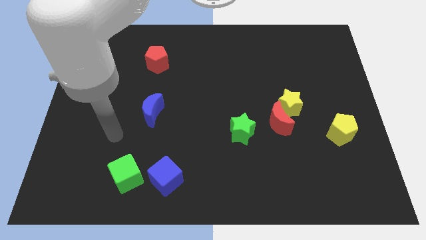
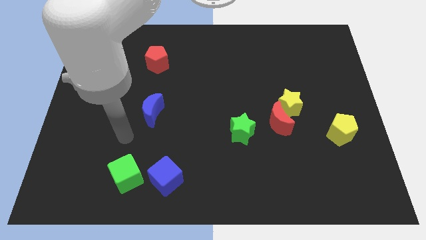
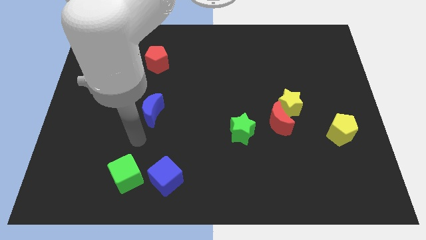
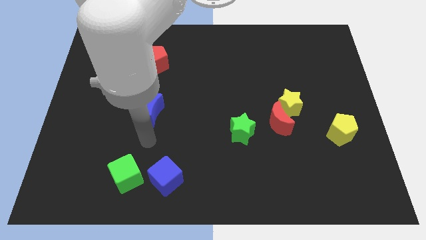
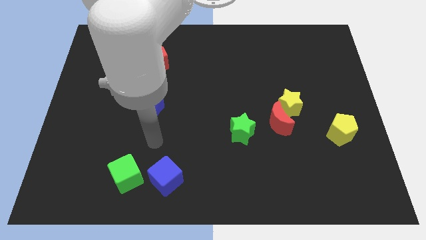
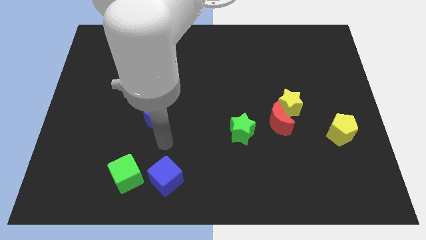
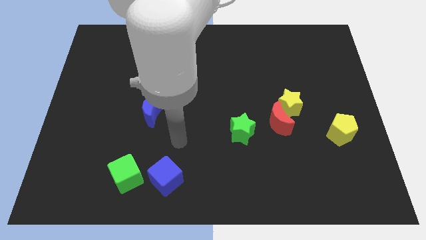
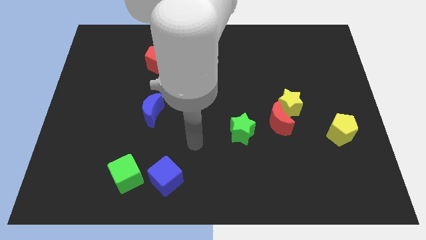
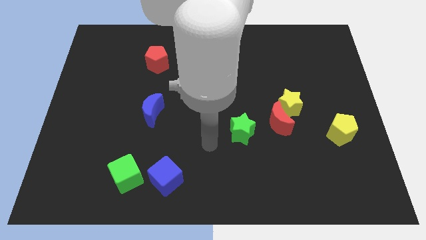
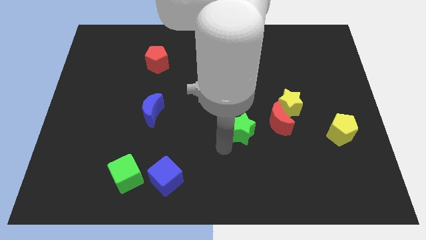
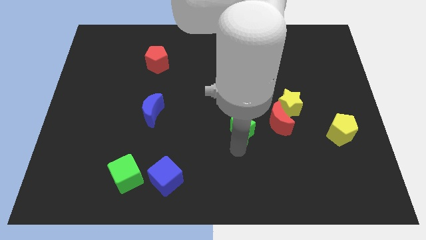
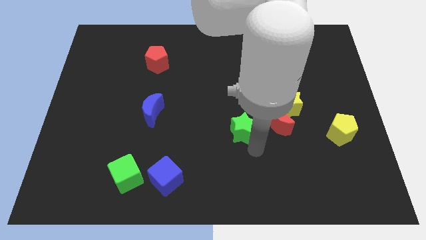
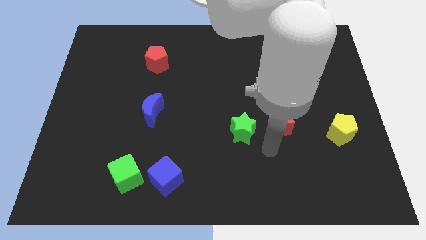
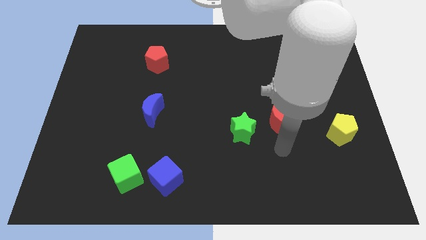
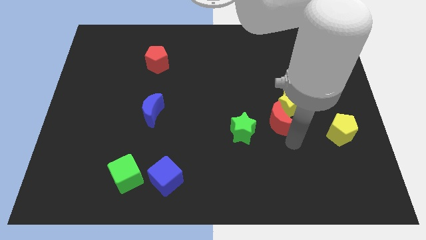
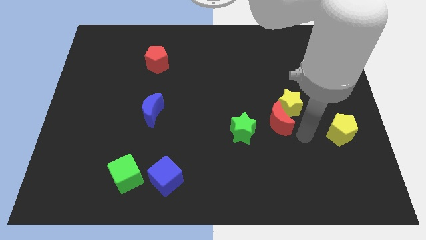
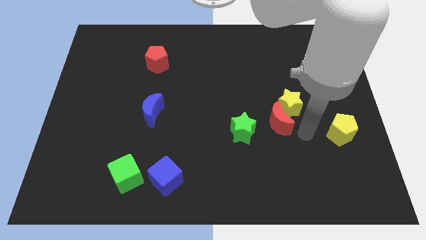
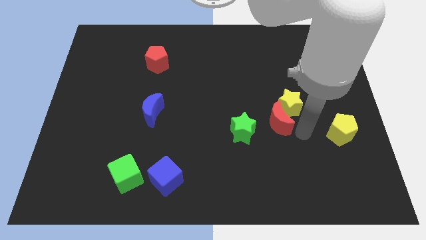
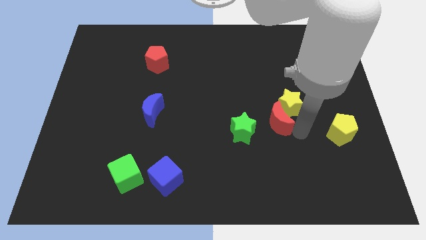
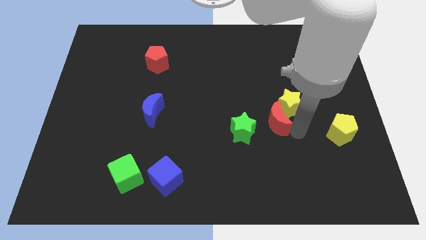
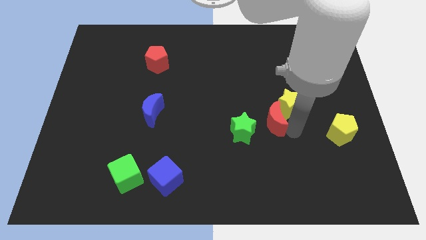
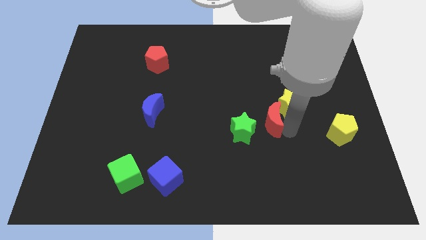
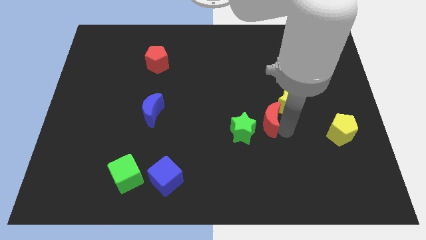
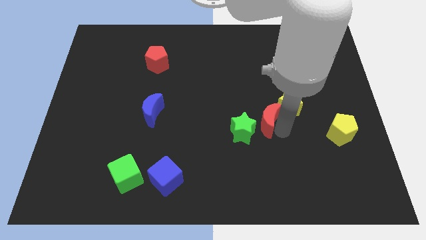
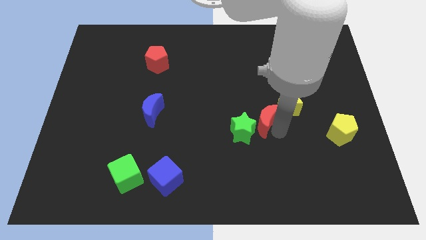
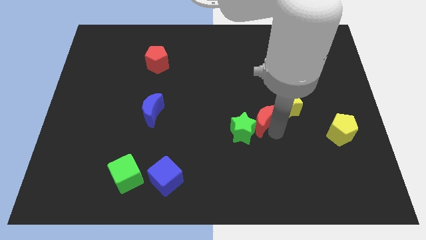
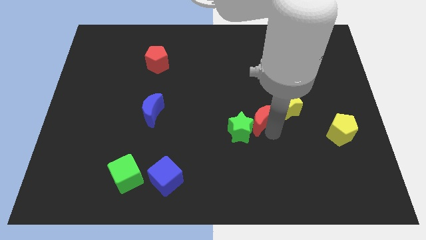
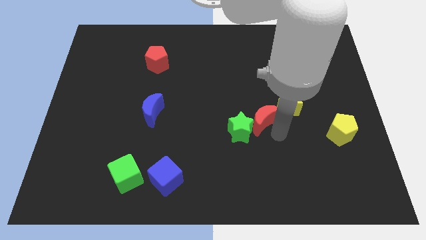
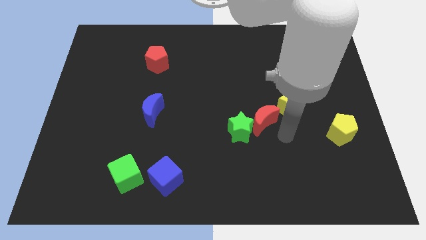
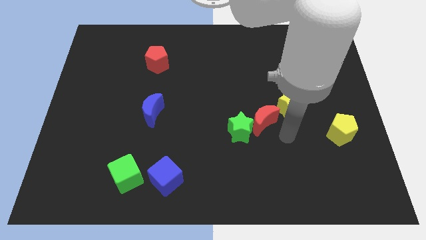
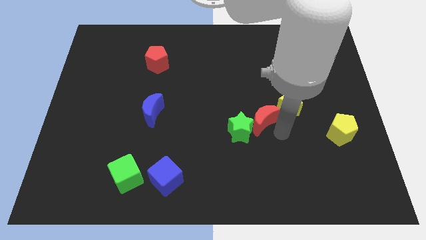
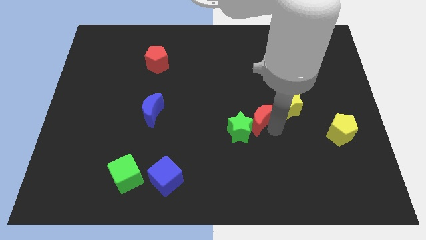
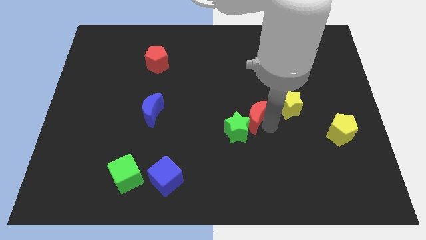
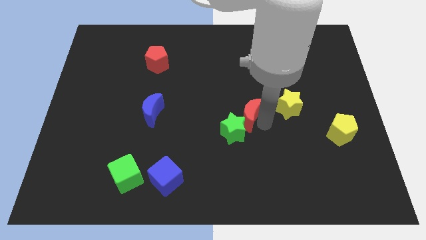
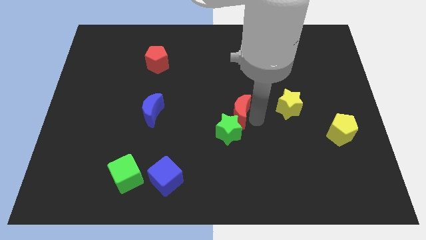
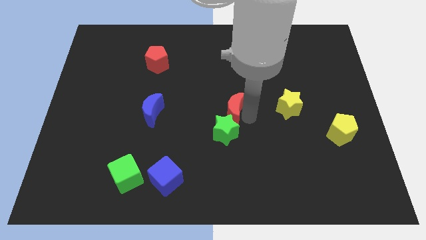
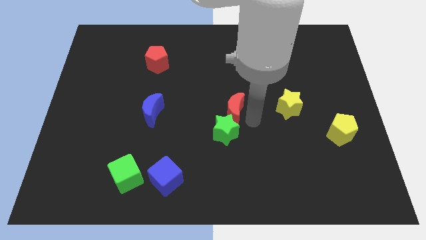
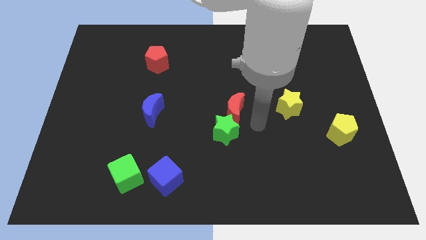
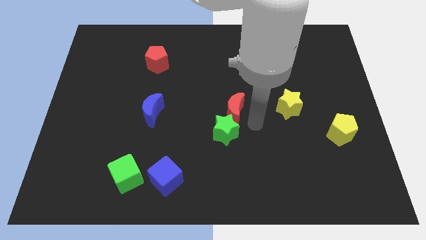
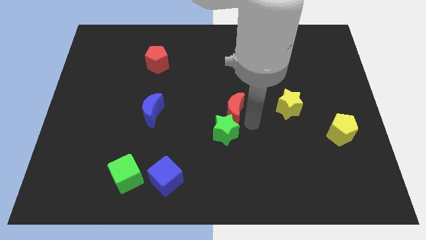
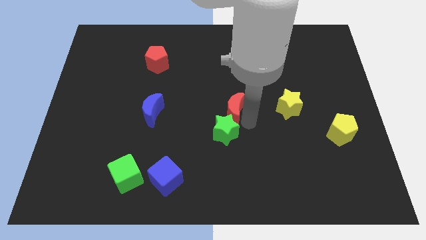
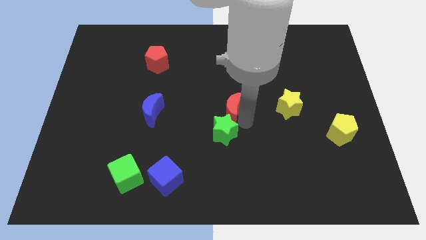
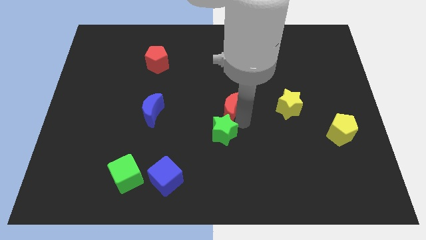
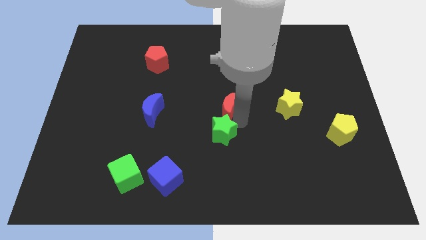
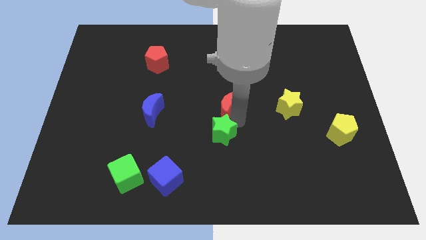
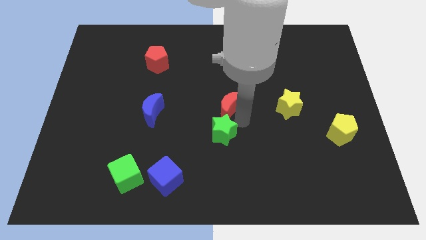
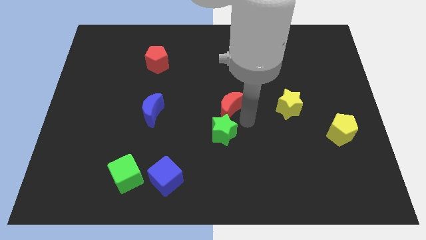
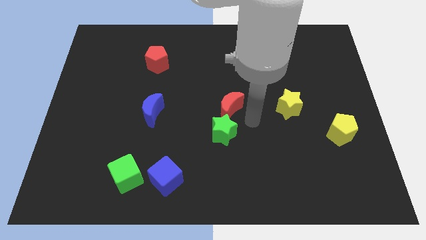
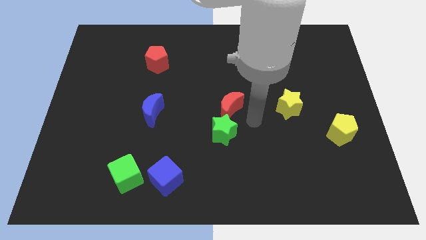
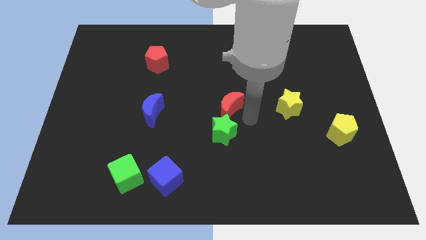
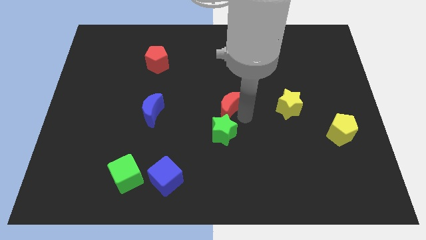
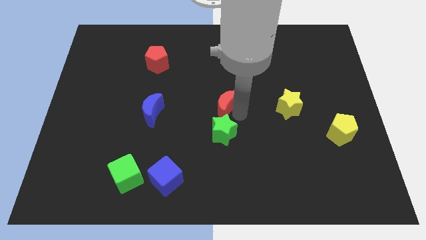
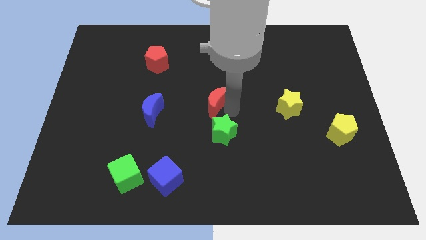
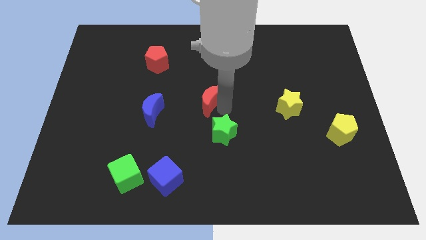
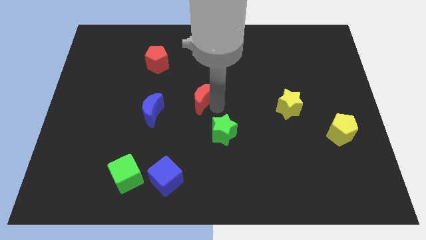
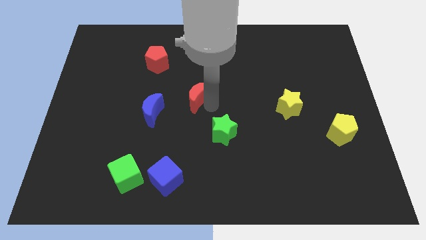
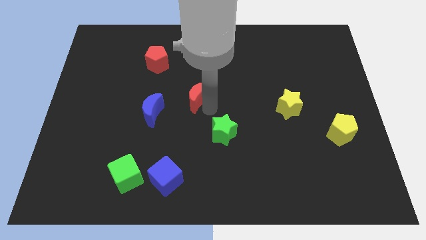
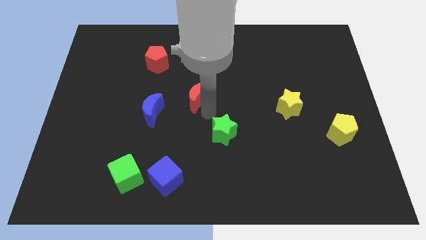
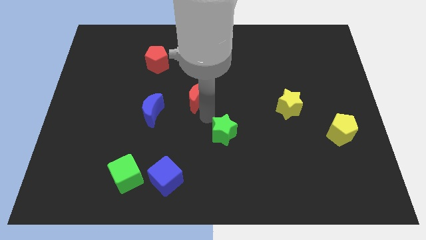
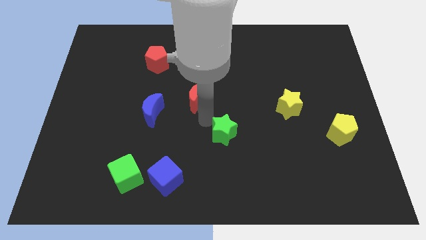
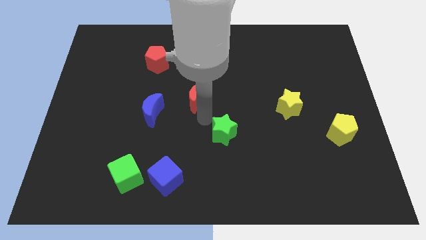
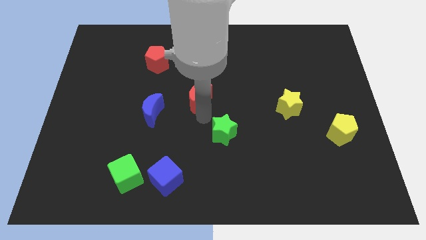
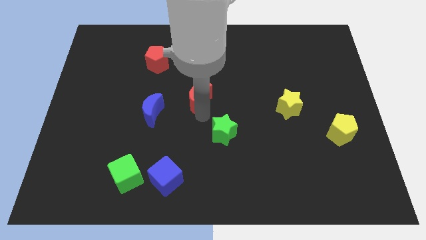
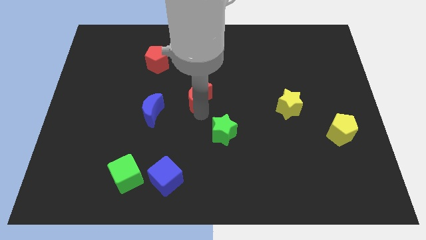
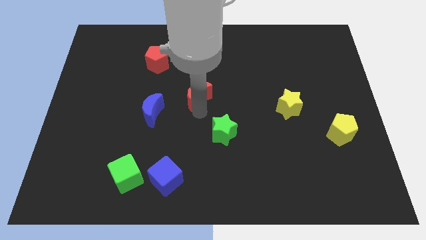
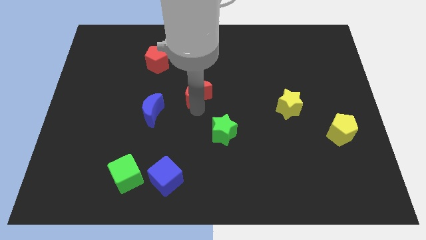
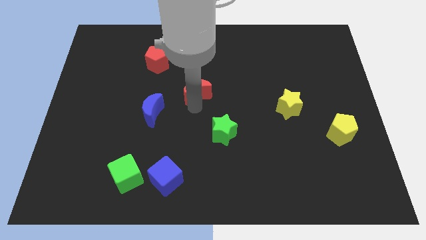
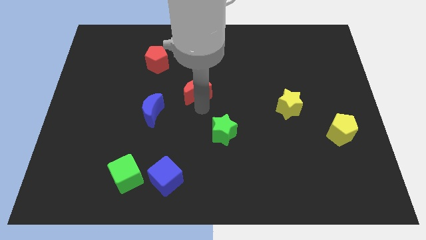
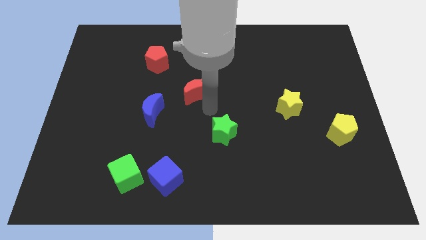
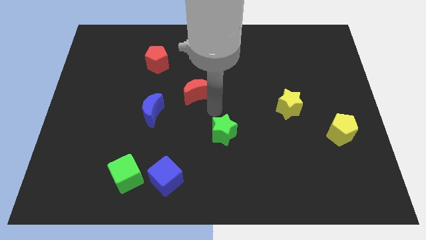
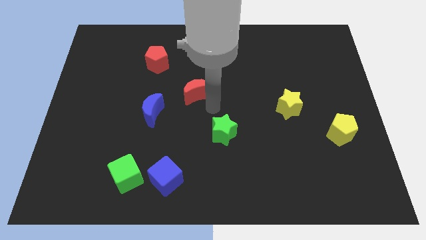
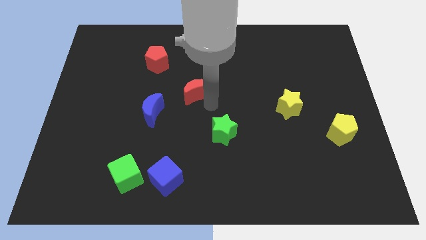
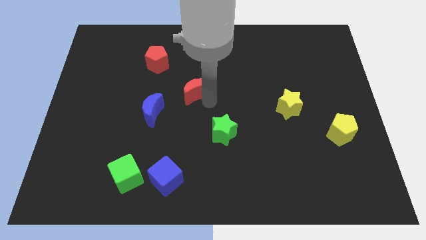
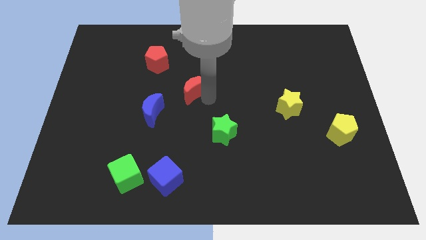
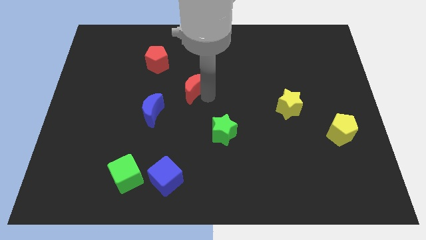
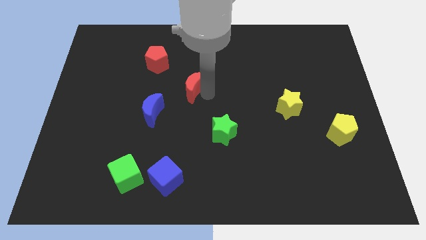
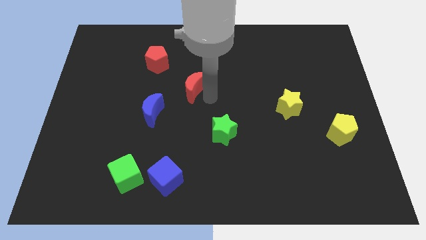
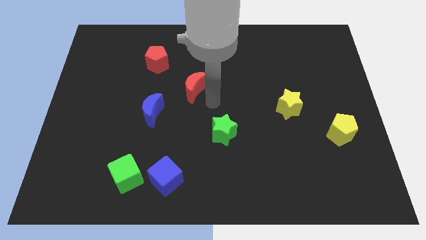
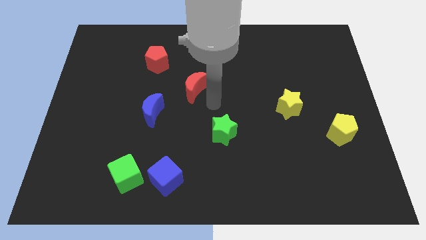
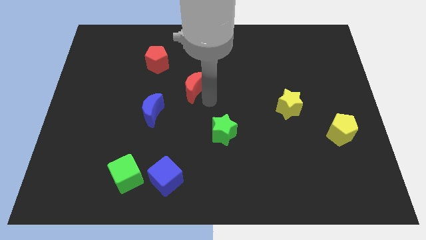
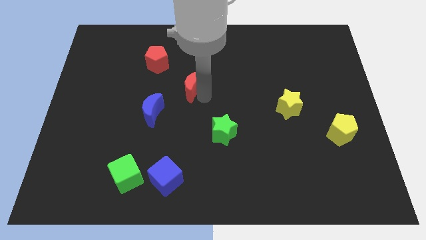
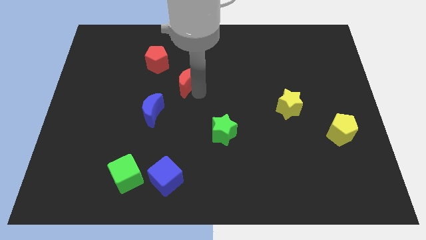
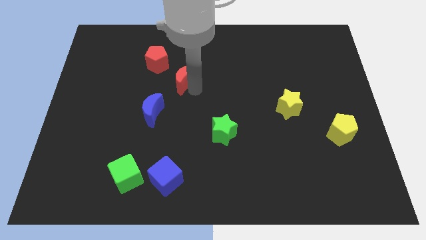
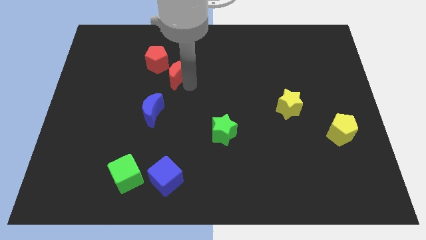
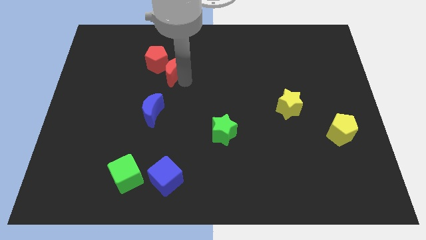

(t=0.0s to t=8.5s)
put the red moon close to the red pentagon
